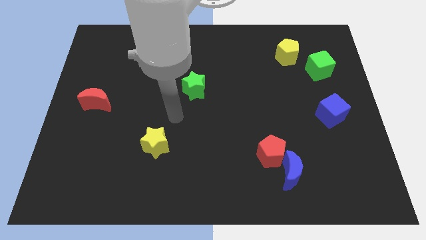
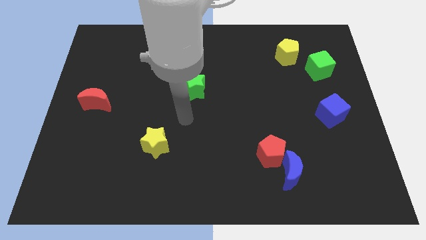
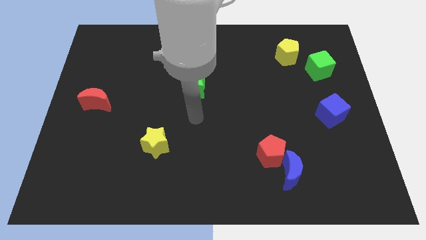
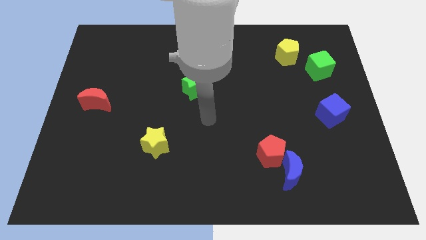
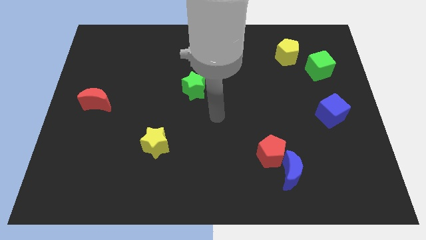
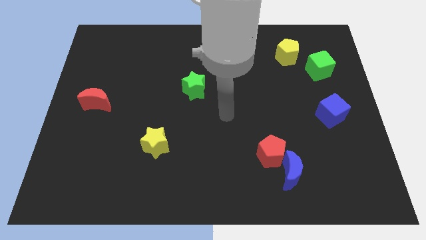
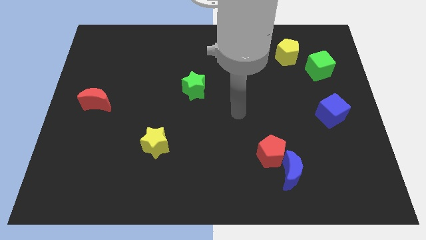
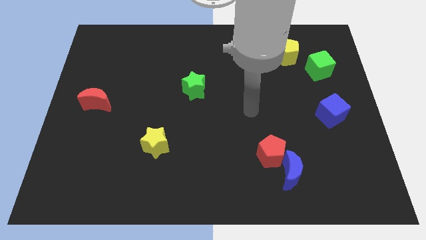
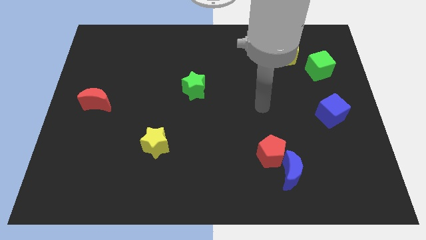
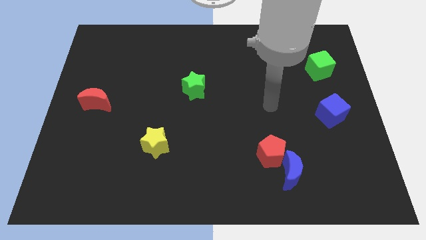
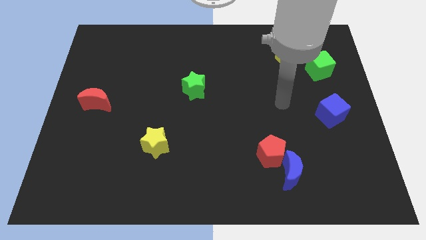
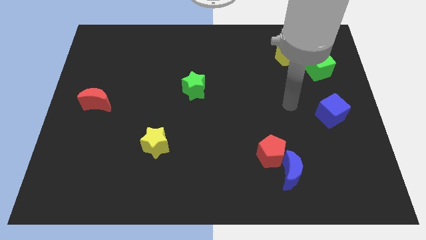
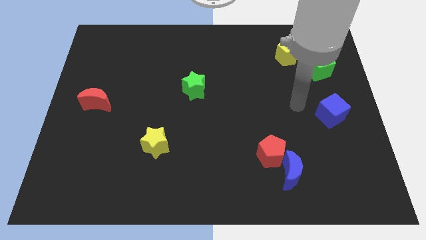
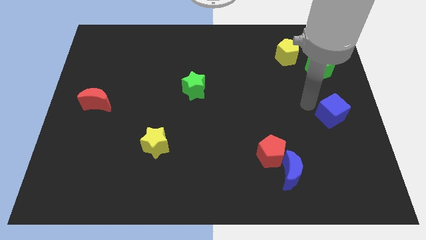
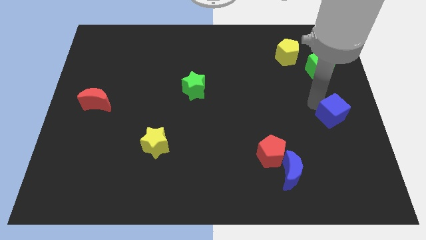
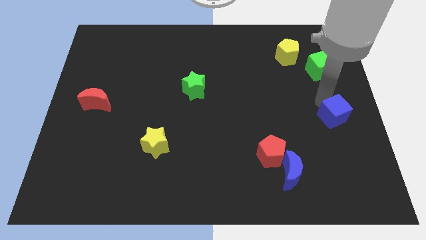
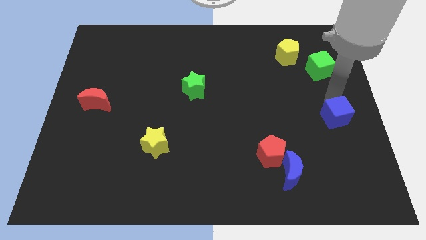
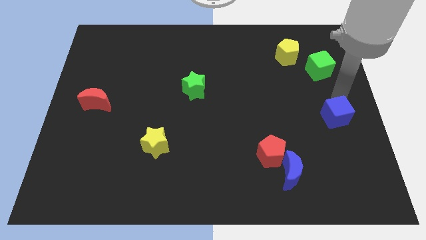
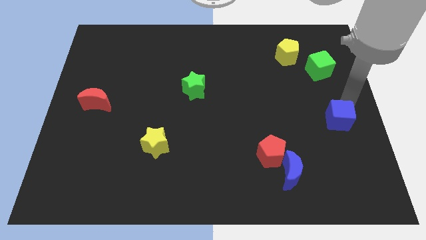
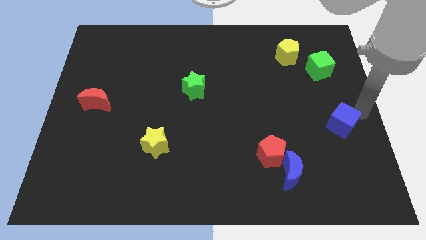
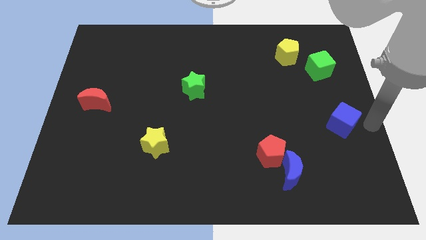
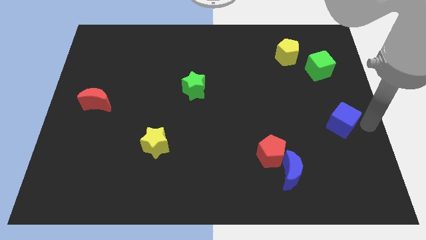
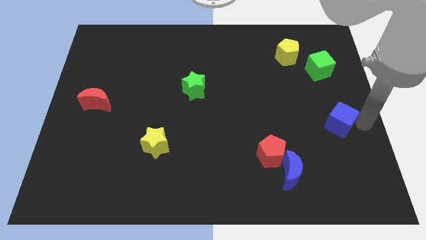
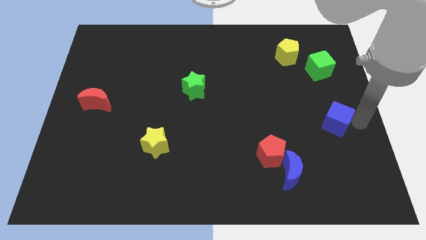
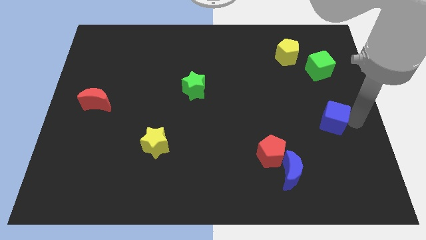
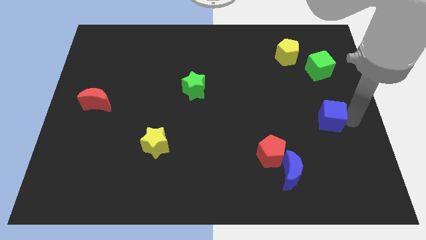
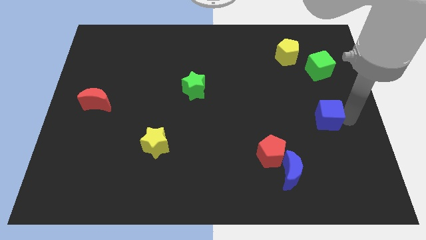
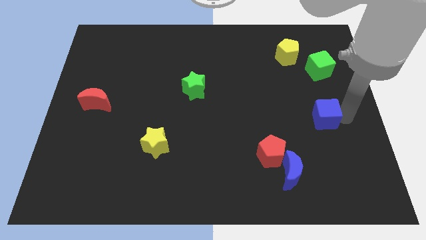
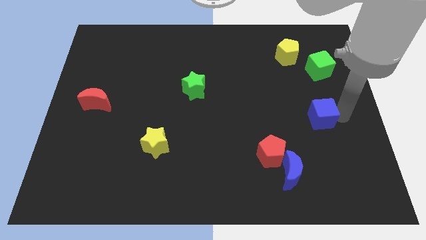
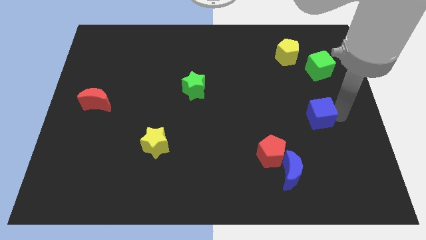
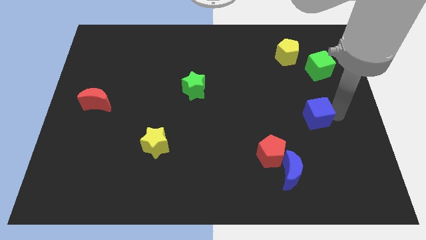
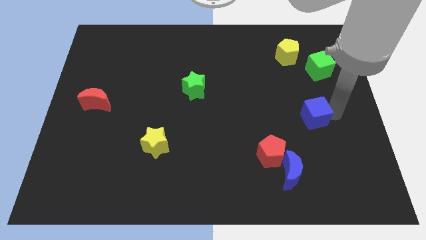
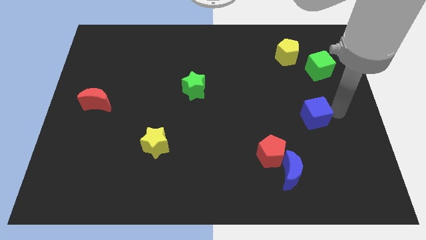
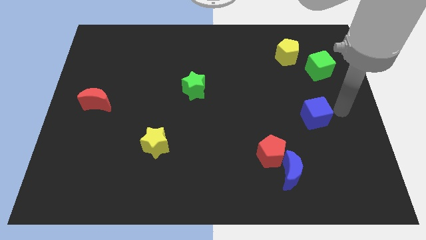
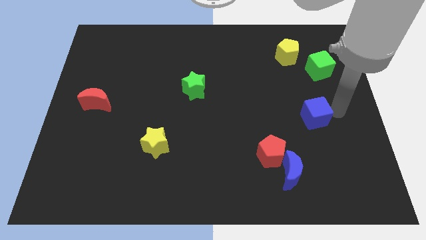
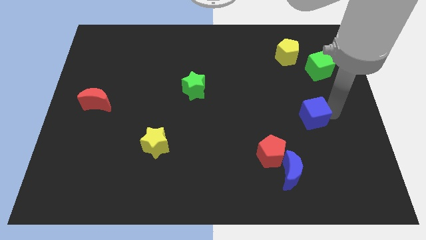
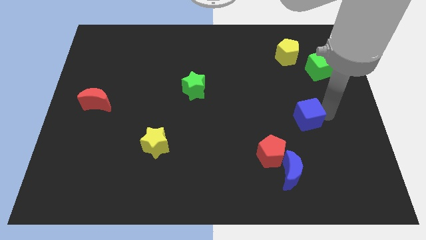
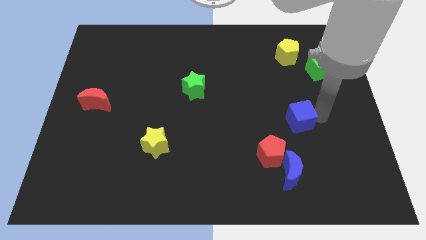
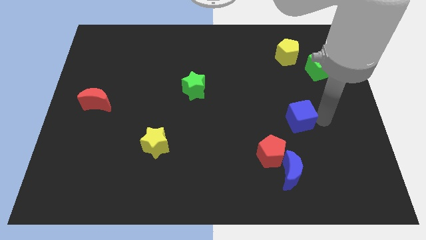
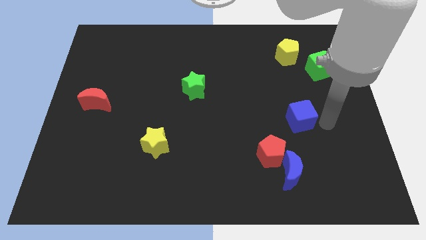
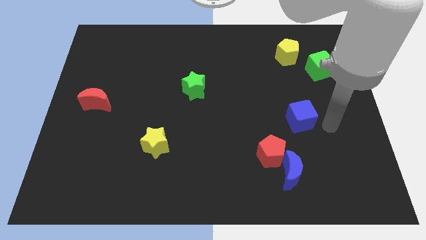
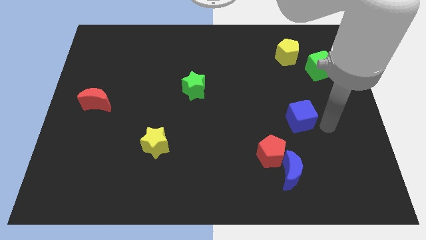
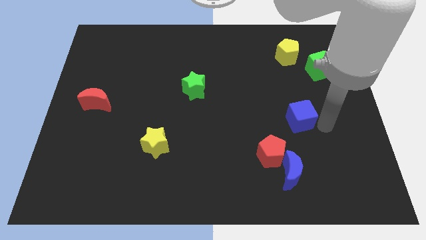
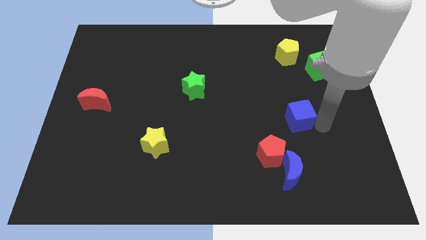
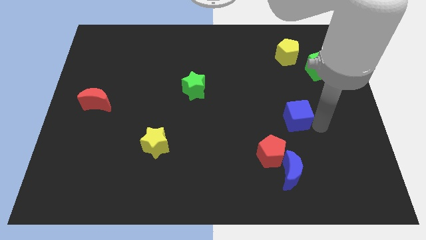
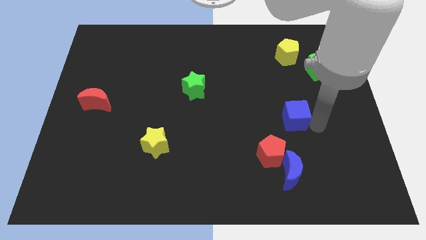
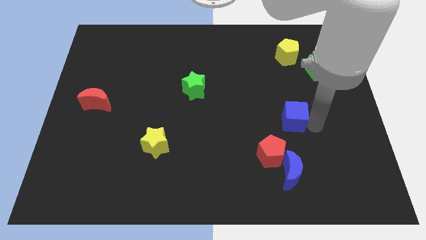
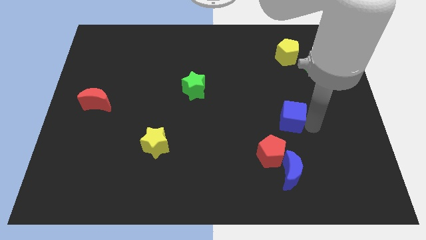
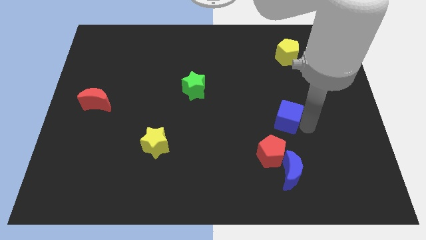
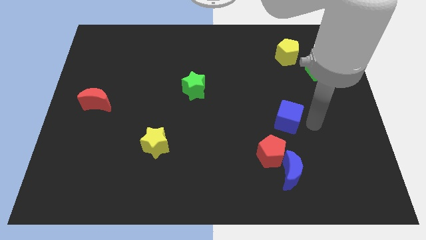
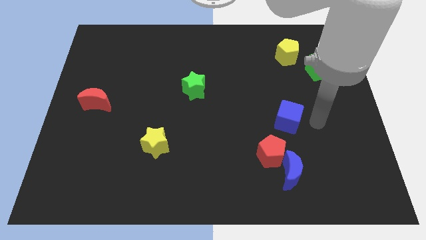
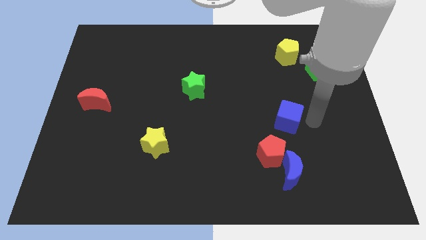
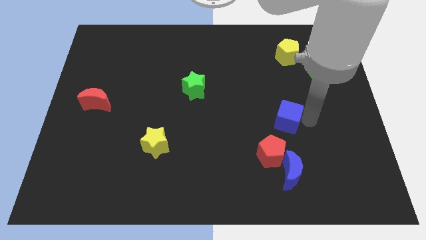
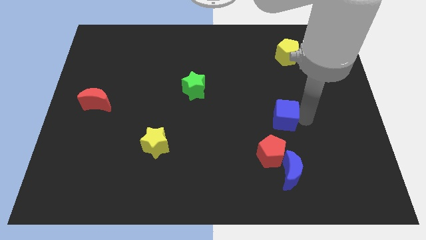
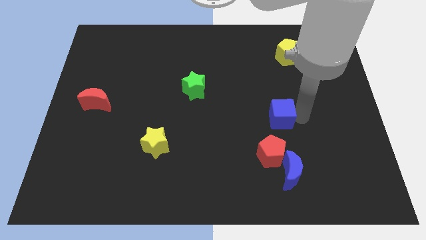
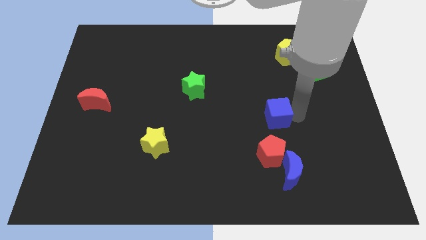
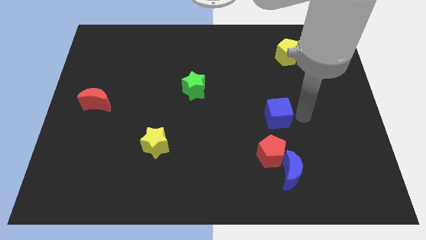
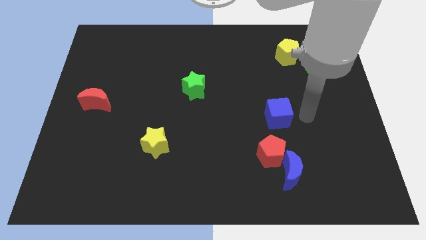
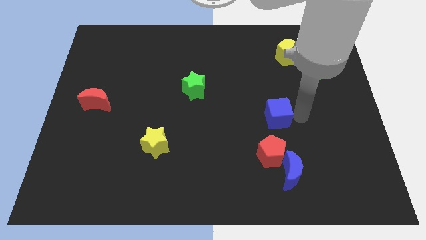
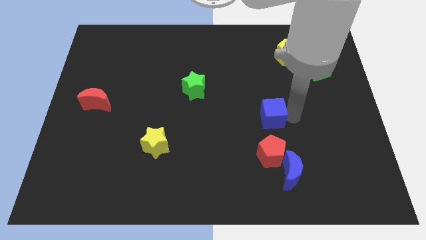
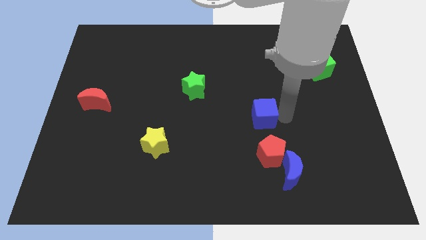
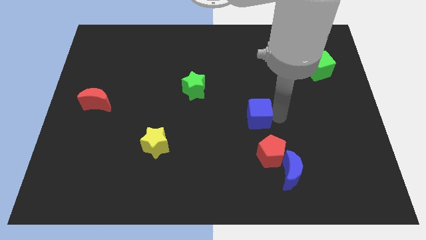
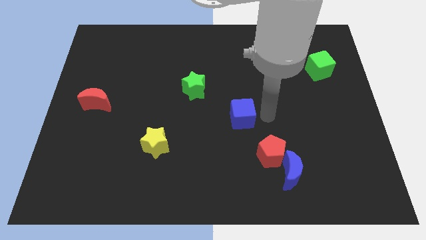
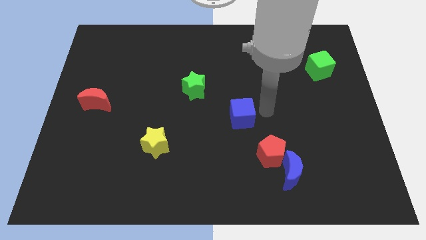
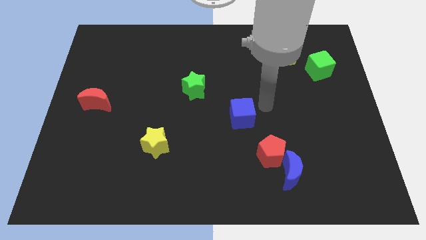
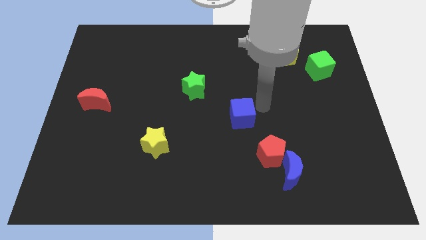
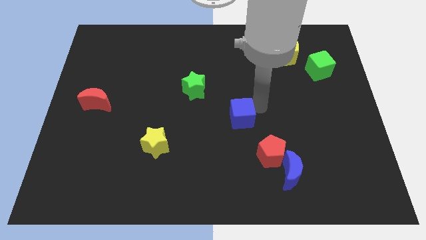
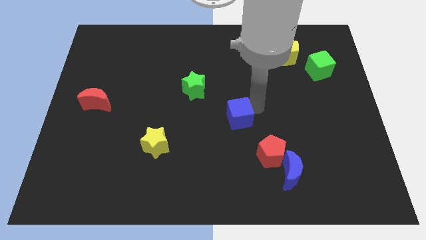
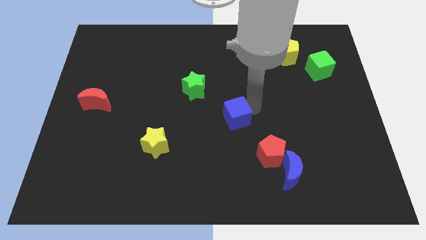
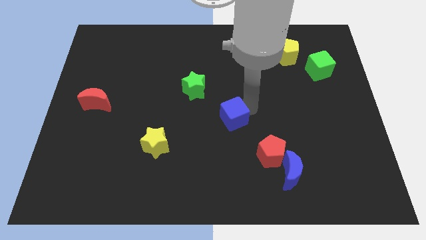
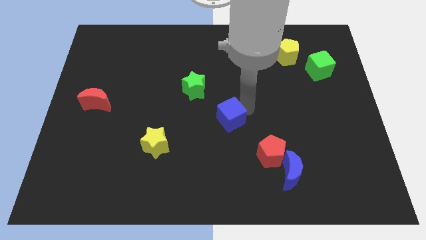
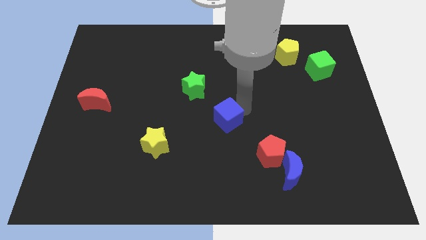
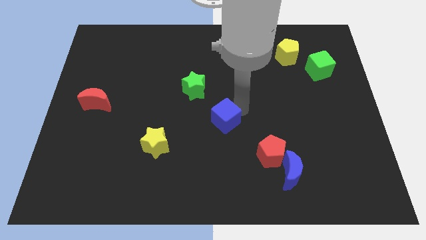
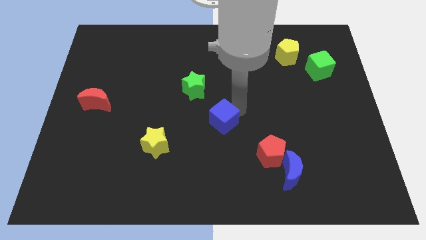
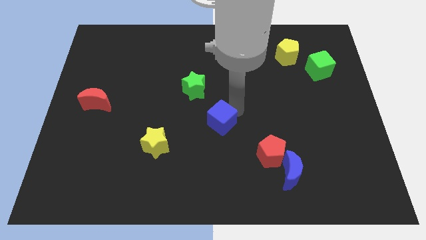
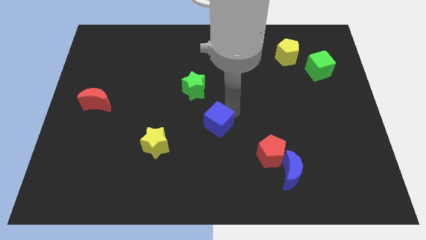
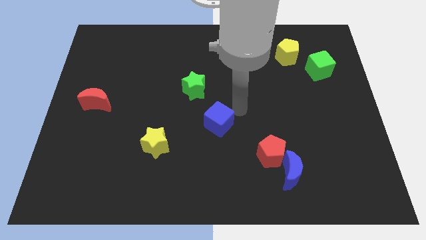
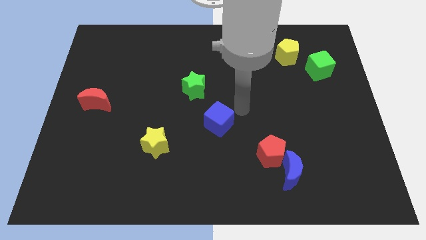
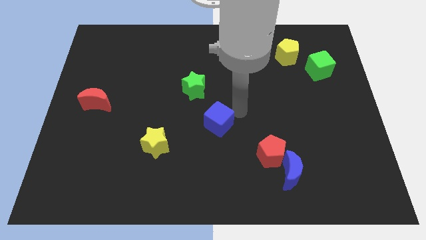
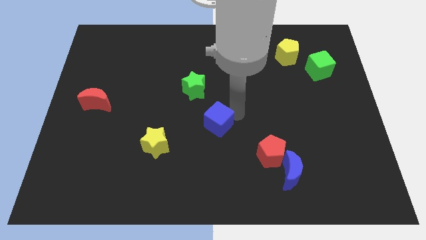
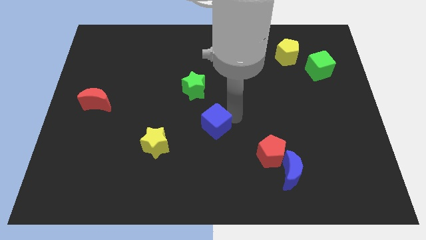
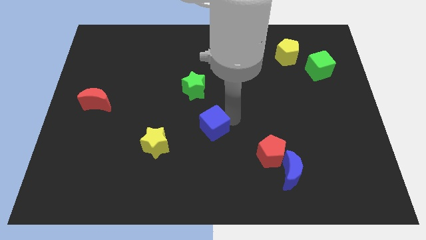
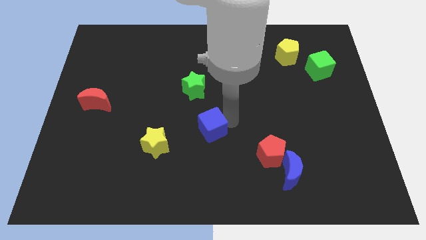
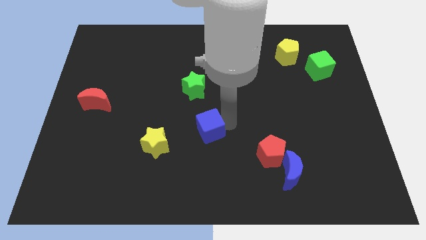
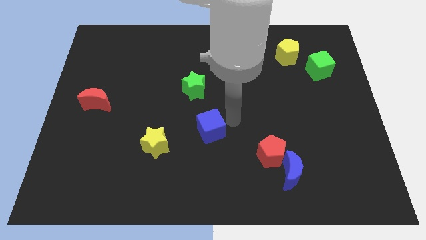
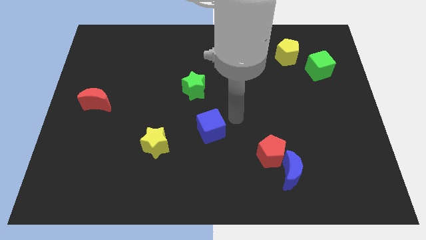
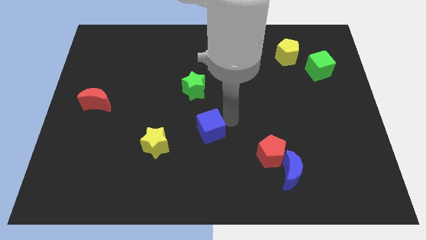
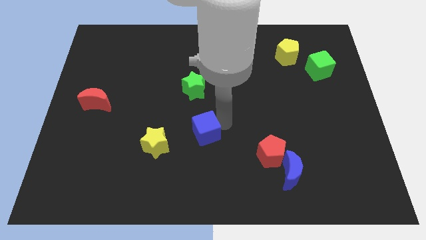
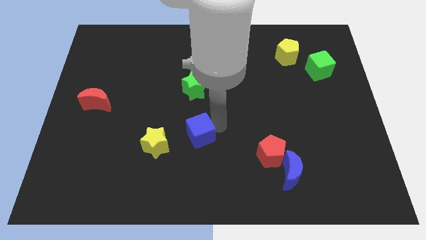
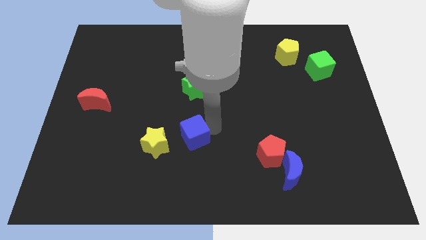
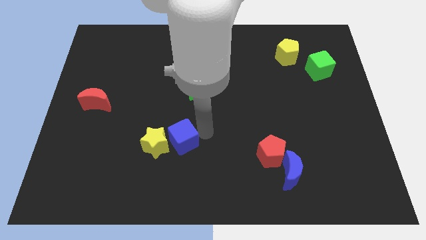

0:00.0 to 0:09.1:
put the blue cube to the yellow star
